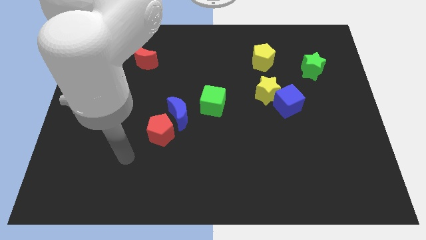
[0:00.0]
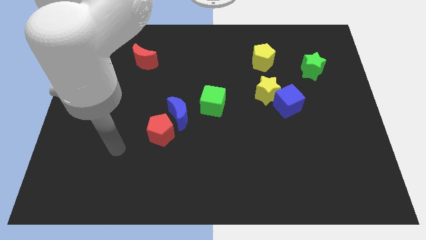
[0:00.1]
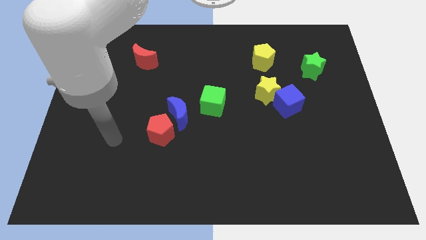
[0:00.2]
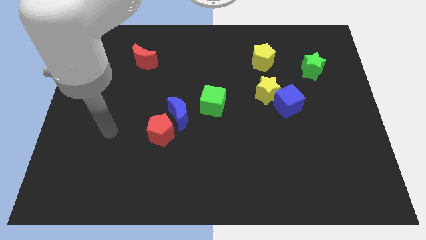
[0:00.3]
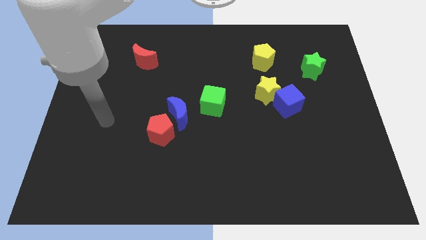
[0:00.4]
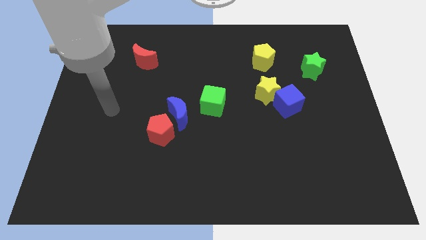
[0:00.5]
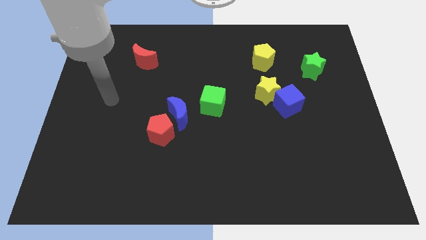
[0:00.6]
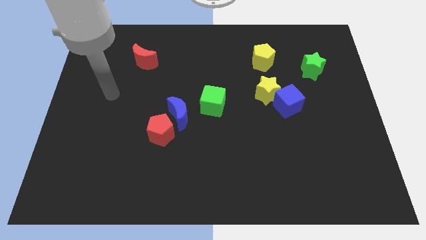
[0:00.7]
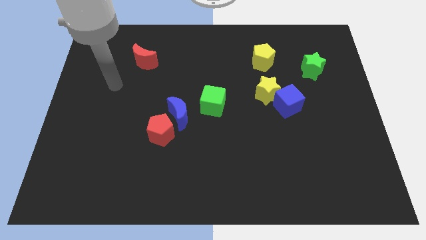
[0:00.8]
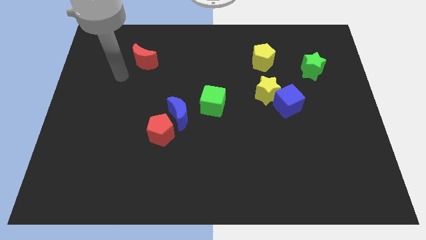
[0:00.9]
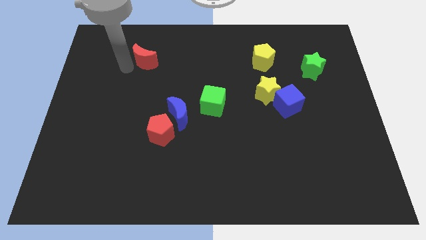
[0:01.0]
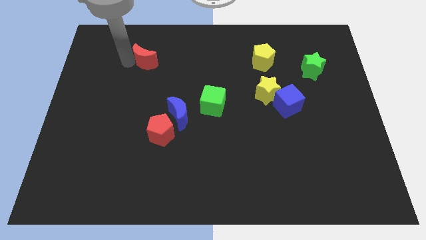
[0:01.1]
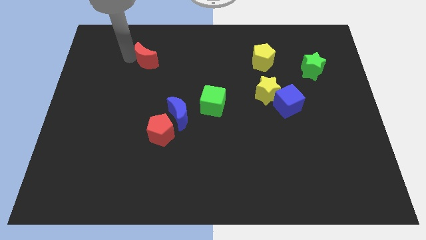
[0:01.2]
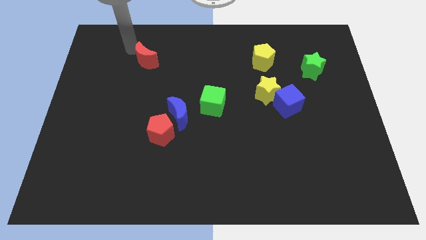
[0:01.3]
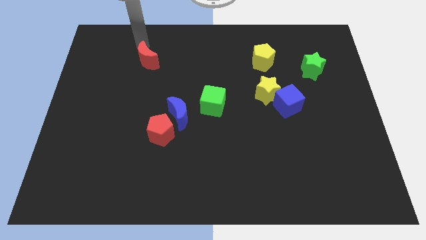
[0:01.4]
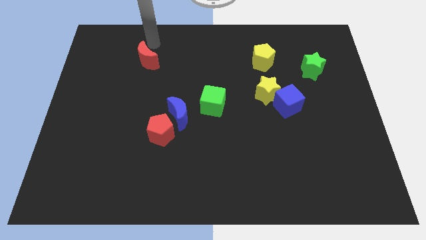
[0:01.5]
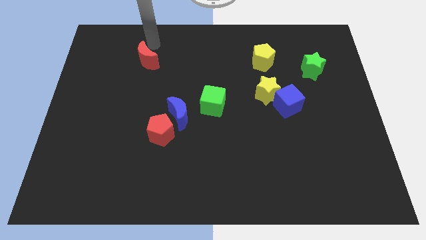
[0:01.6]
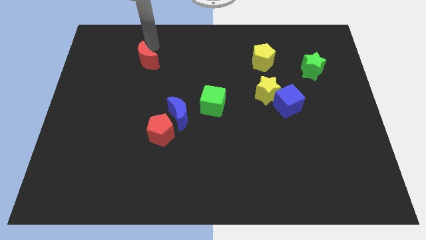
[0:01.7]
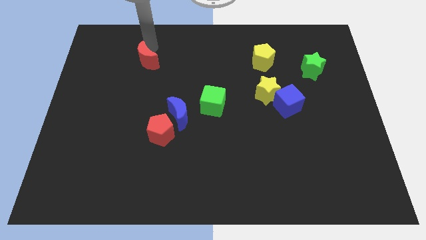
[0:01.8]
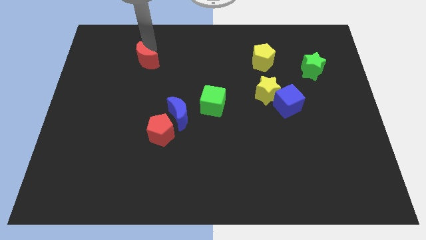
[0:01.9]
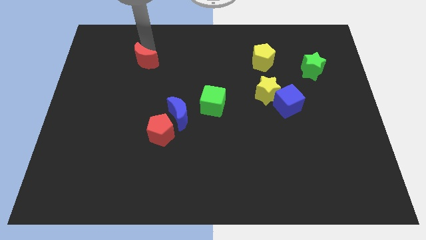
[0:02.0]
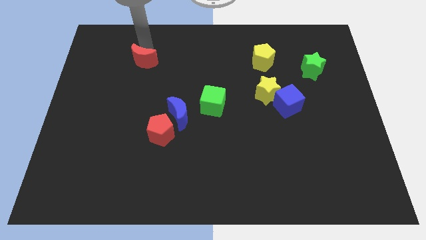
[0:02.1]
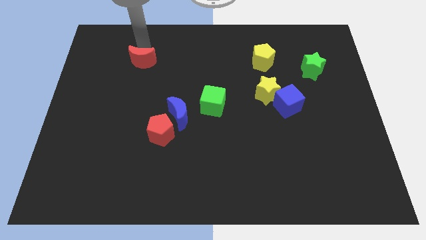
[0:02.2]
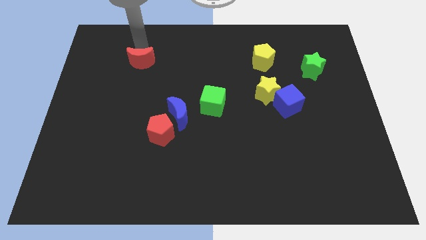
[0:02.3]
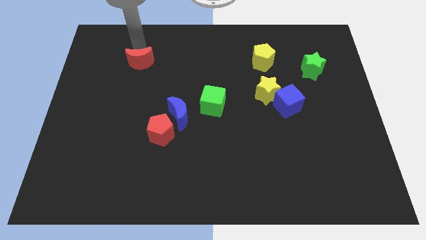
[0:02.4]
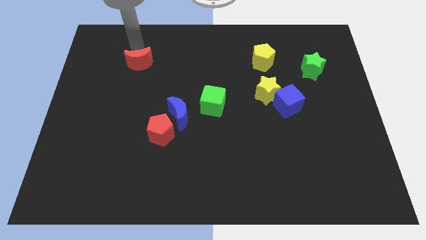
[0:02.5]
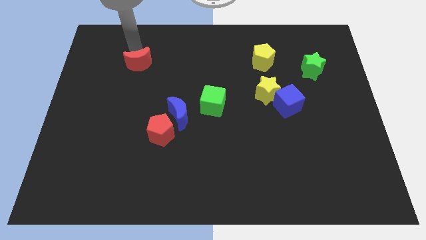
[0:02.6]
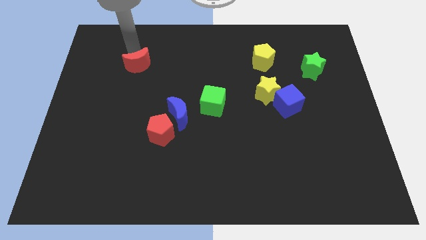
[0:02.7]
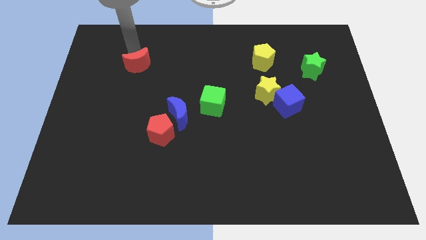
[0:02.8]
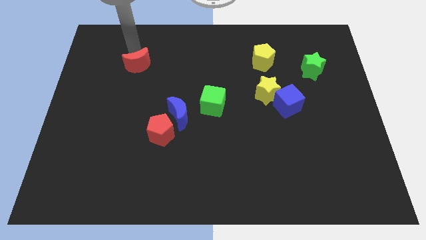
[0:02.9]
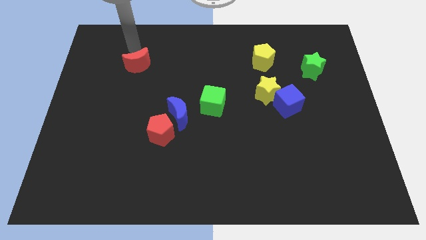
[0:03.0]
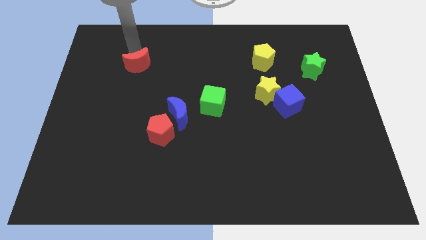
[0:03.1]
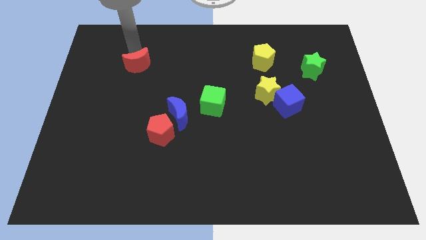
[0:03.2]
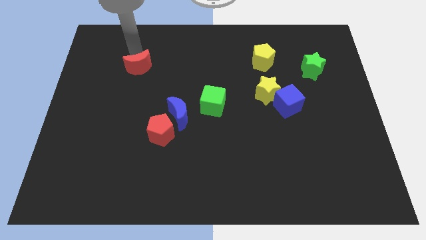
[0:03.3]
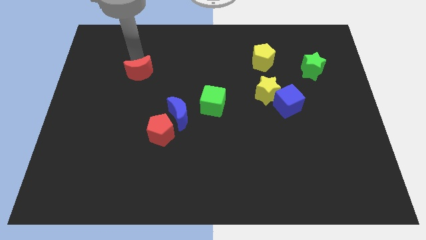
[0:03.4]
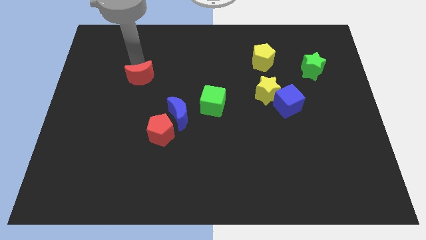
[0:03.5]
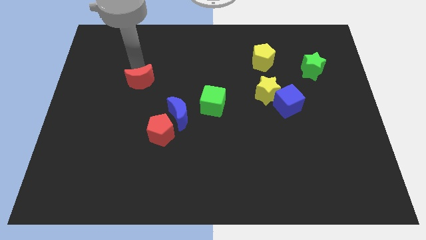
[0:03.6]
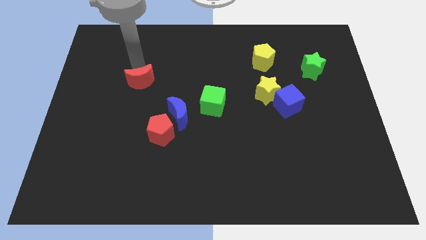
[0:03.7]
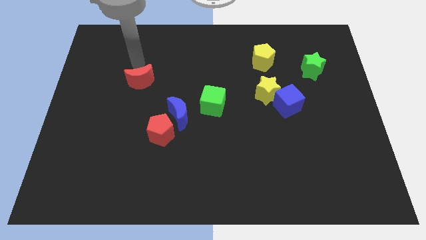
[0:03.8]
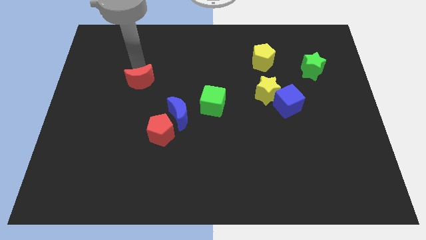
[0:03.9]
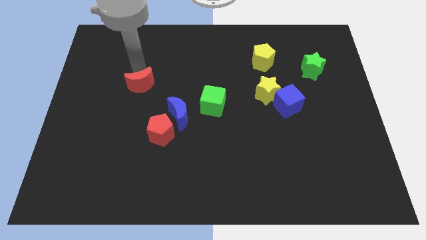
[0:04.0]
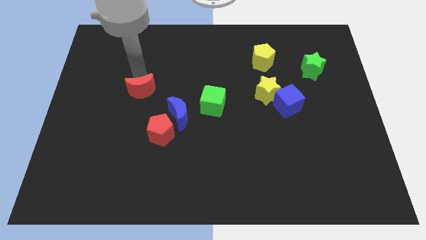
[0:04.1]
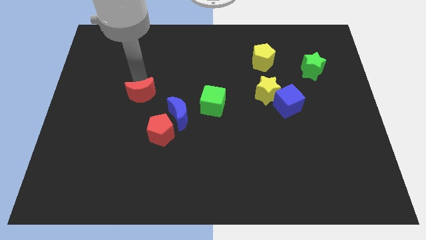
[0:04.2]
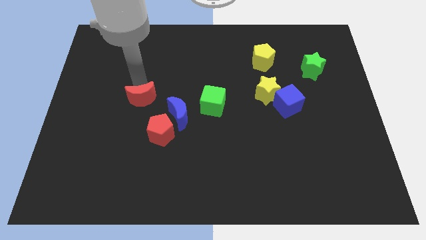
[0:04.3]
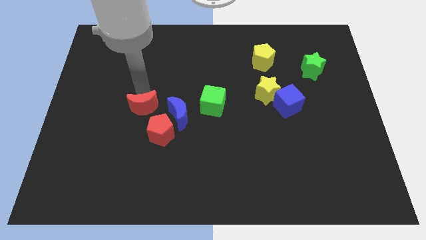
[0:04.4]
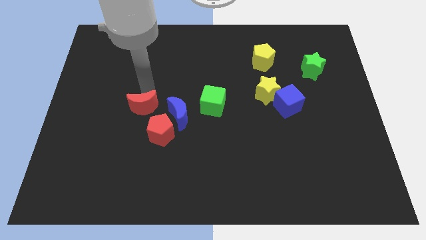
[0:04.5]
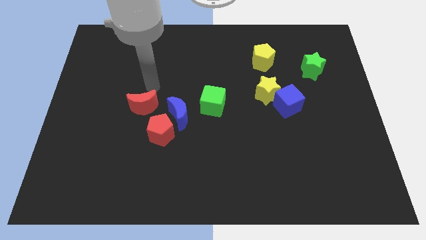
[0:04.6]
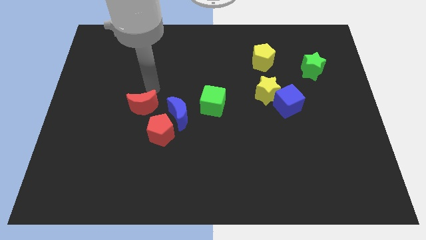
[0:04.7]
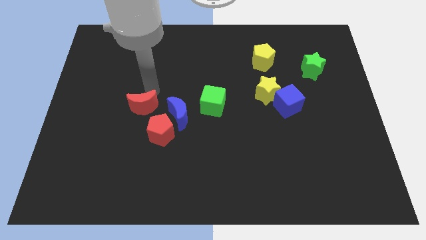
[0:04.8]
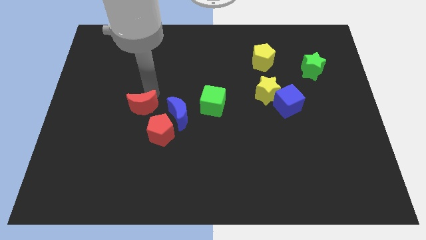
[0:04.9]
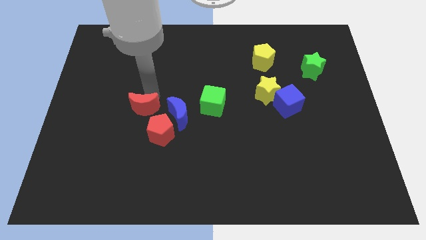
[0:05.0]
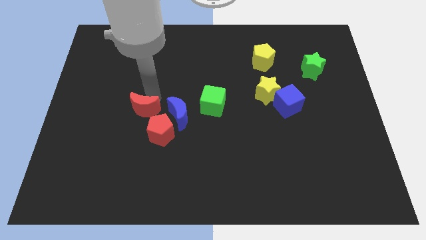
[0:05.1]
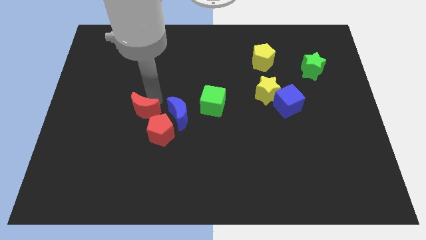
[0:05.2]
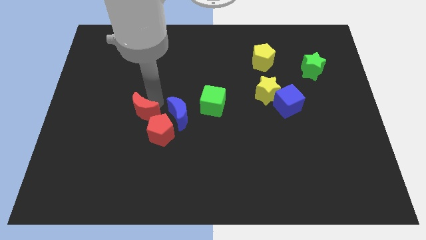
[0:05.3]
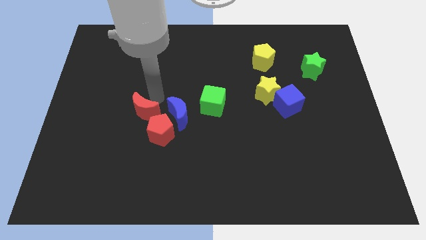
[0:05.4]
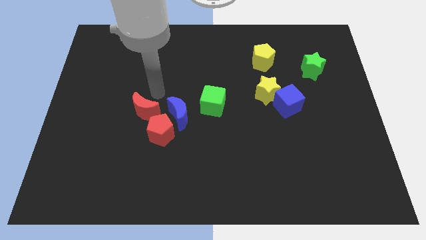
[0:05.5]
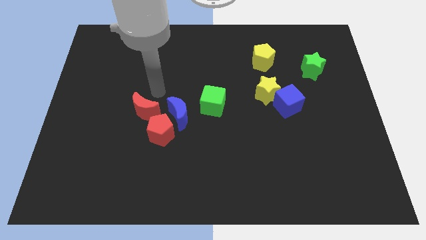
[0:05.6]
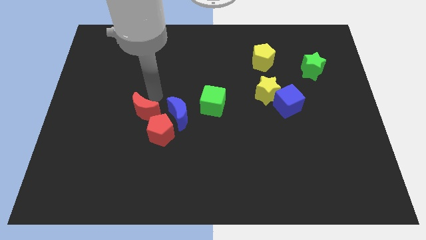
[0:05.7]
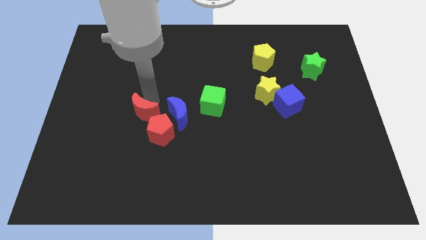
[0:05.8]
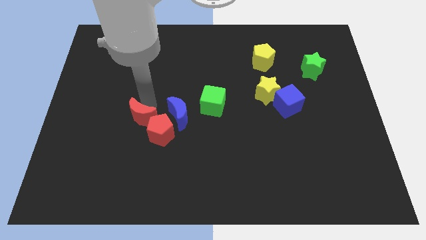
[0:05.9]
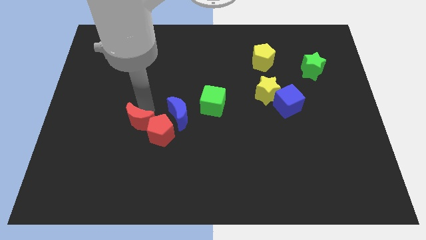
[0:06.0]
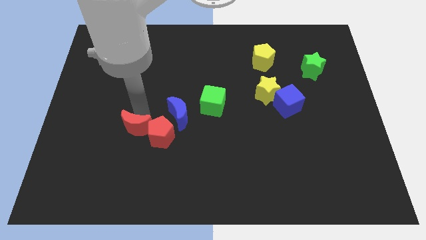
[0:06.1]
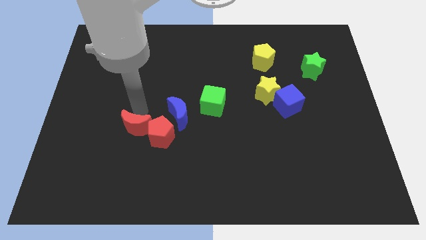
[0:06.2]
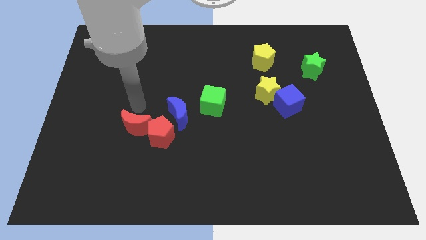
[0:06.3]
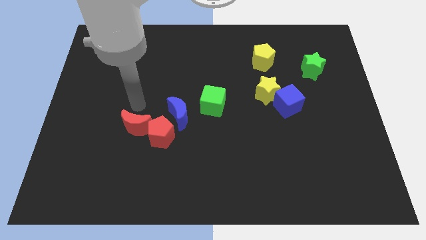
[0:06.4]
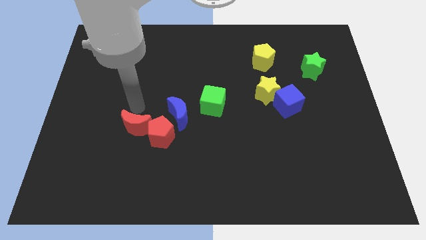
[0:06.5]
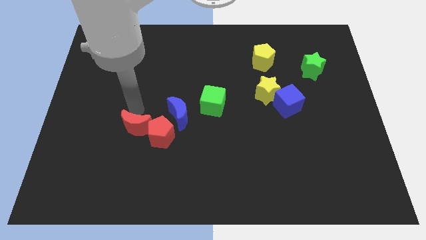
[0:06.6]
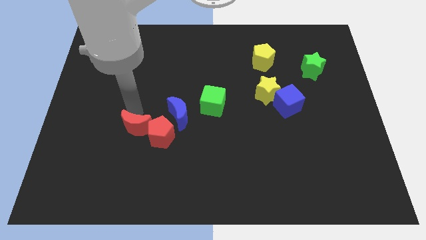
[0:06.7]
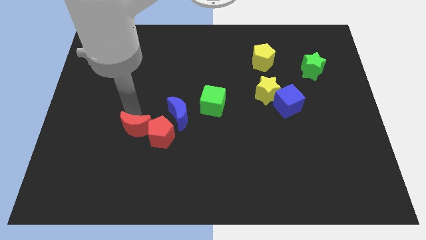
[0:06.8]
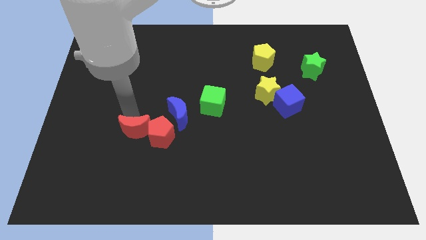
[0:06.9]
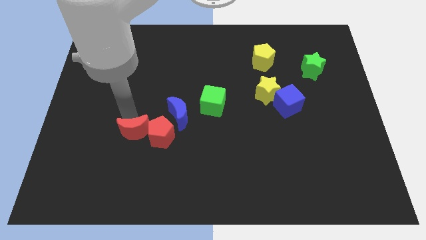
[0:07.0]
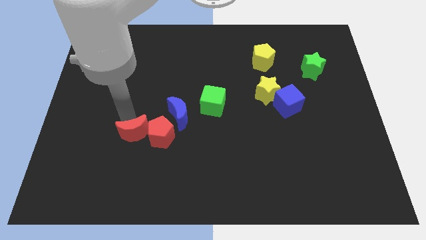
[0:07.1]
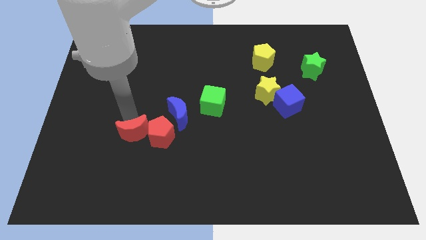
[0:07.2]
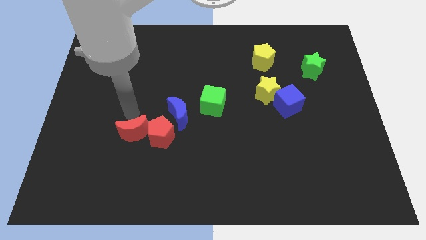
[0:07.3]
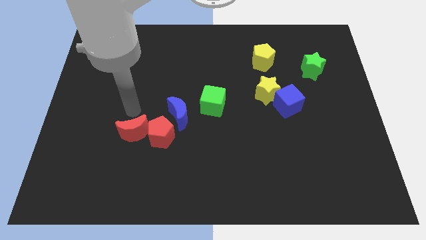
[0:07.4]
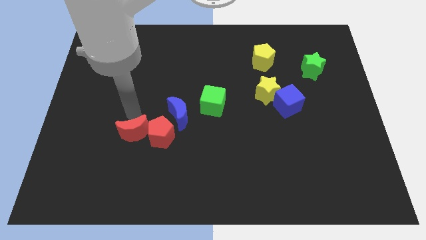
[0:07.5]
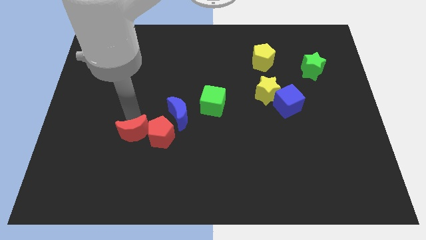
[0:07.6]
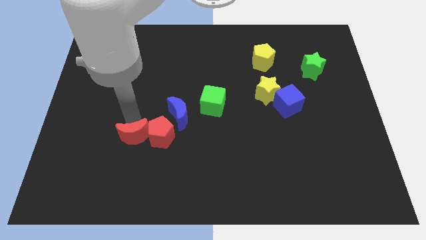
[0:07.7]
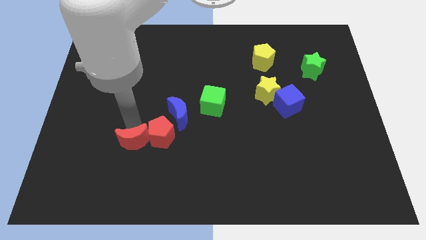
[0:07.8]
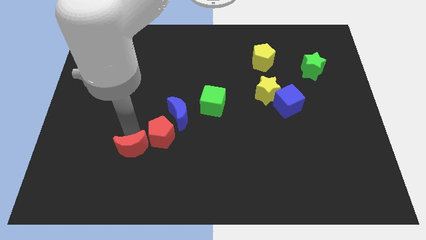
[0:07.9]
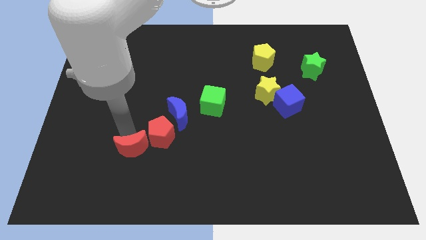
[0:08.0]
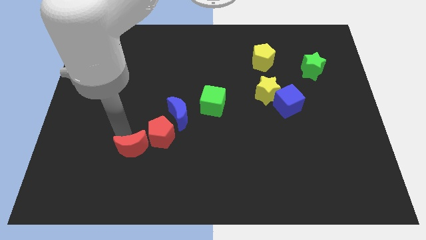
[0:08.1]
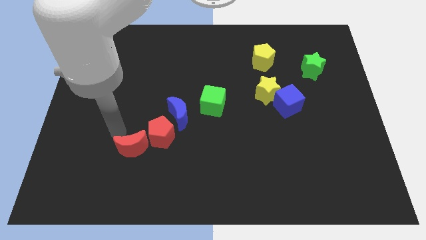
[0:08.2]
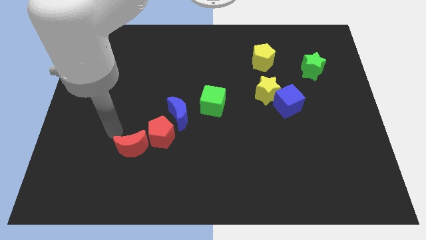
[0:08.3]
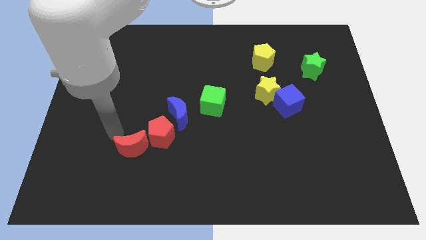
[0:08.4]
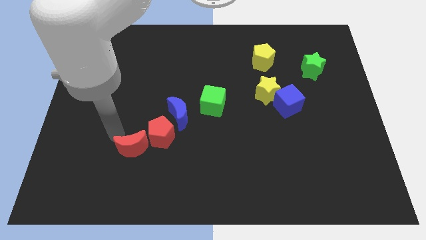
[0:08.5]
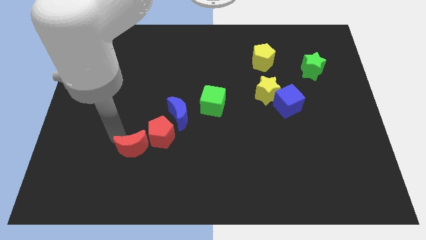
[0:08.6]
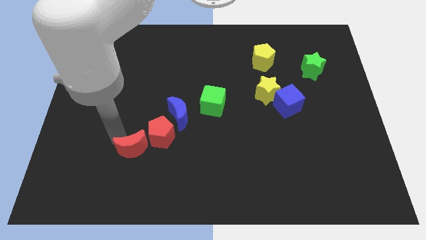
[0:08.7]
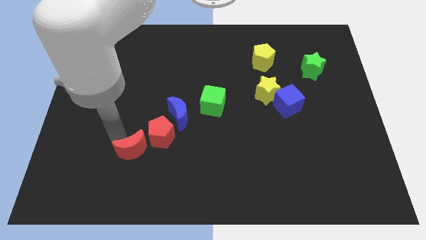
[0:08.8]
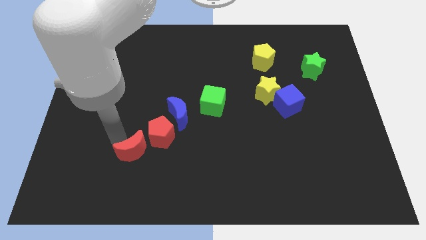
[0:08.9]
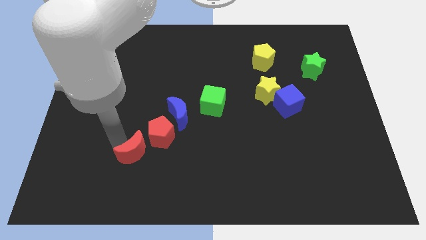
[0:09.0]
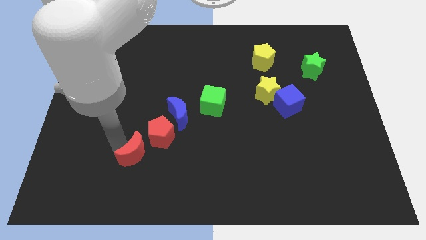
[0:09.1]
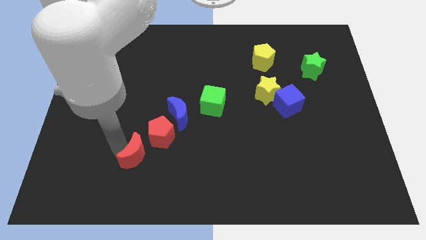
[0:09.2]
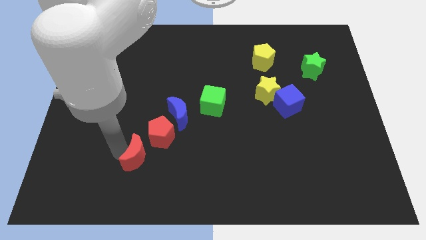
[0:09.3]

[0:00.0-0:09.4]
move the red moon to the bottom of the red pentagon
